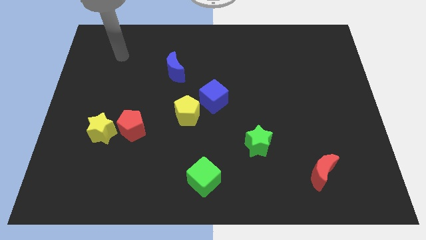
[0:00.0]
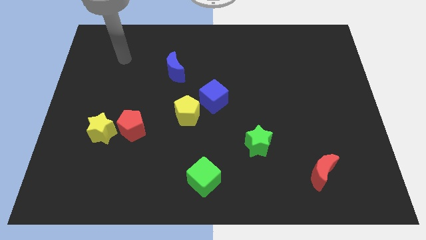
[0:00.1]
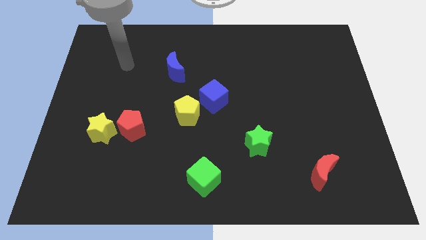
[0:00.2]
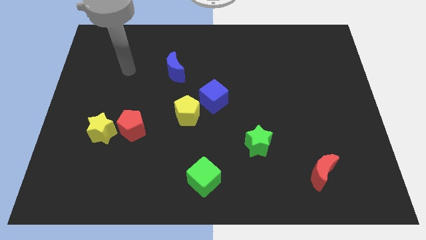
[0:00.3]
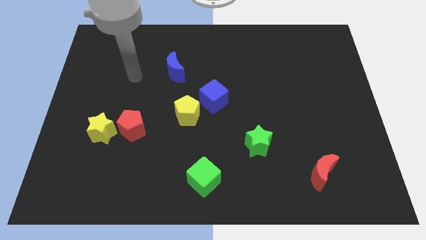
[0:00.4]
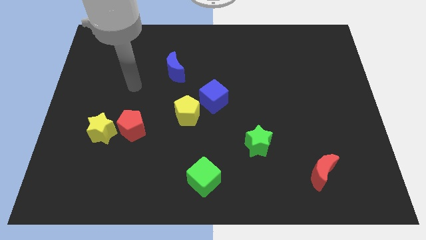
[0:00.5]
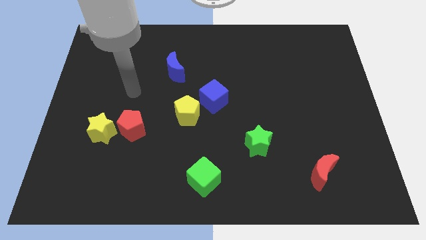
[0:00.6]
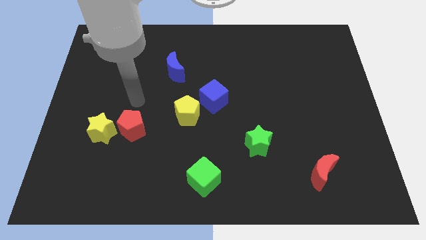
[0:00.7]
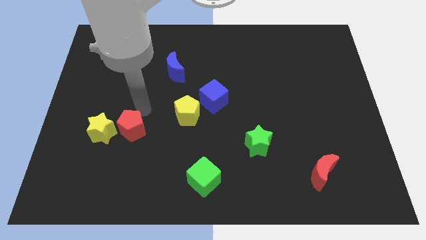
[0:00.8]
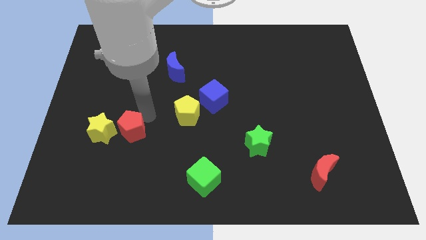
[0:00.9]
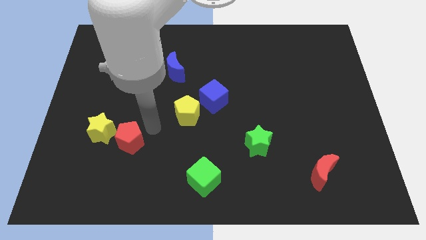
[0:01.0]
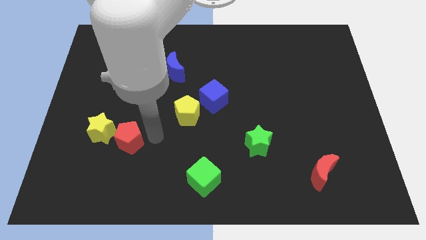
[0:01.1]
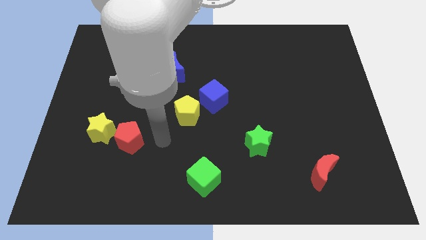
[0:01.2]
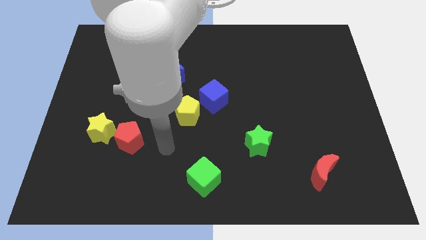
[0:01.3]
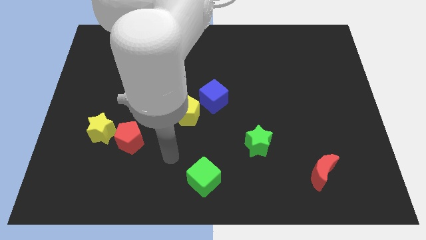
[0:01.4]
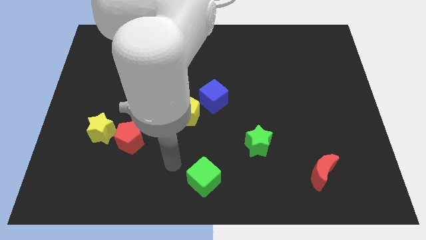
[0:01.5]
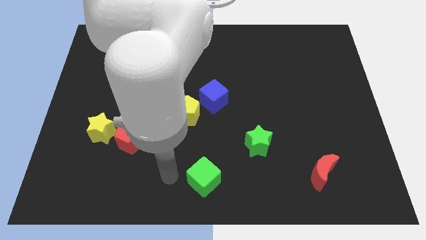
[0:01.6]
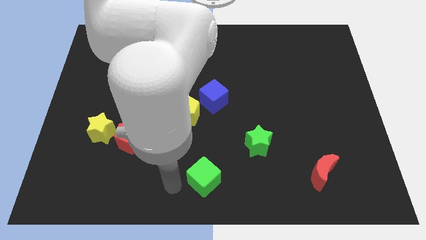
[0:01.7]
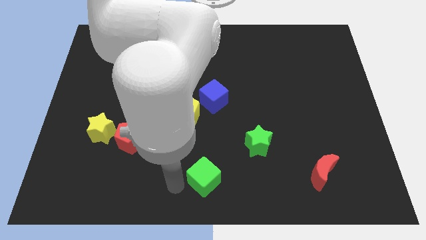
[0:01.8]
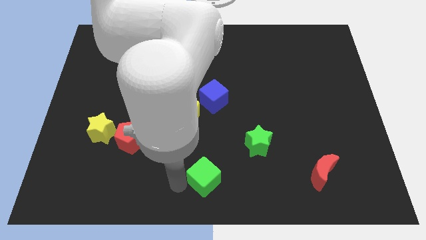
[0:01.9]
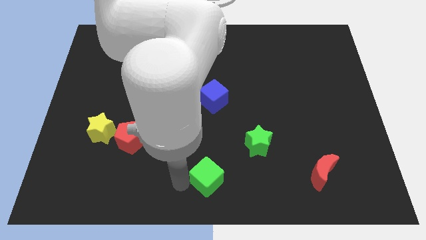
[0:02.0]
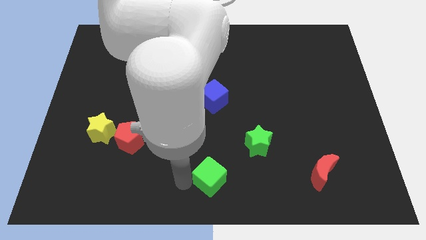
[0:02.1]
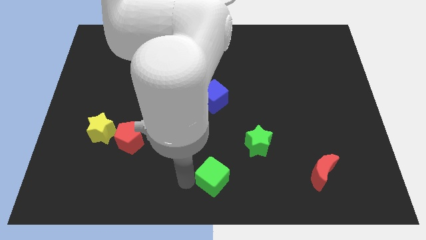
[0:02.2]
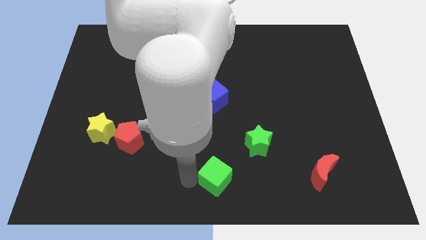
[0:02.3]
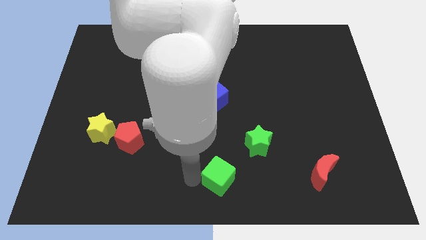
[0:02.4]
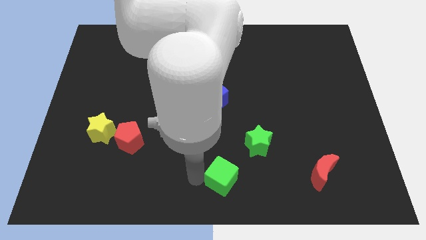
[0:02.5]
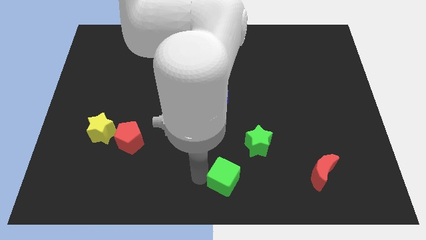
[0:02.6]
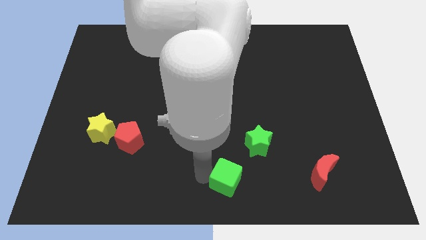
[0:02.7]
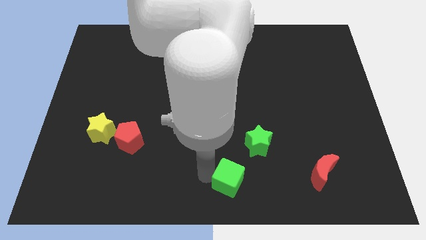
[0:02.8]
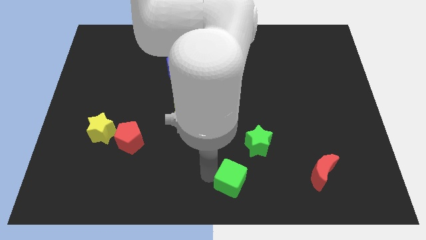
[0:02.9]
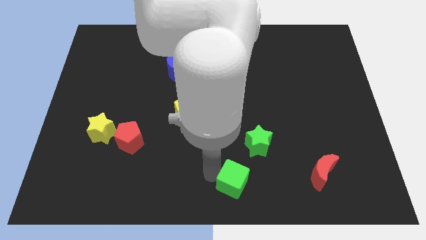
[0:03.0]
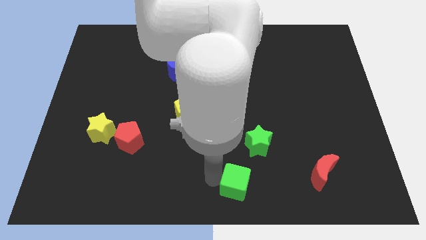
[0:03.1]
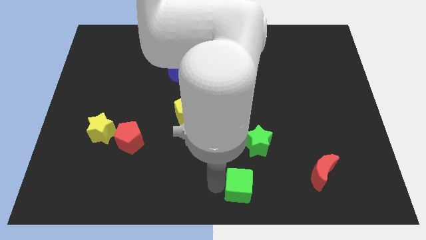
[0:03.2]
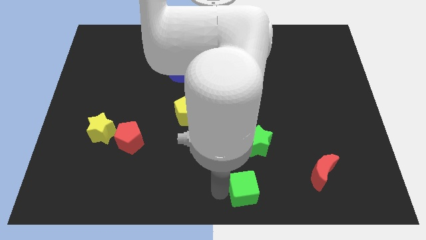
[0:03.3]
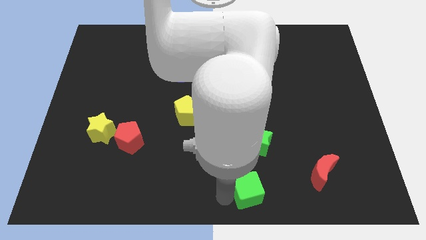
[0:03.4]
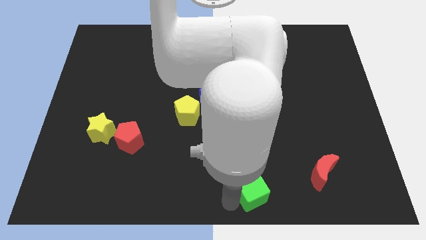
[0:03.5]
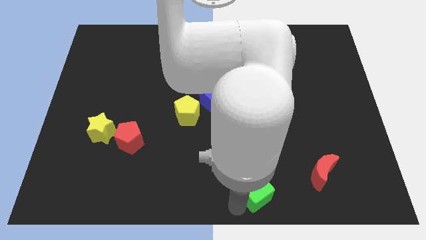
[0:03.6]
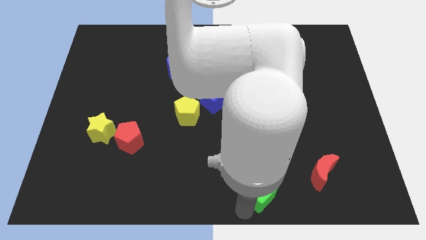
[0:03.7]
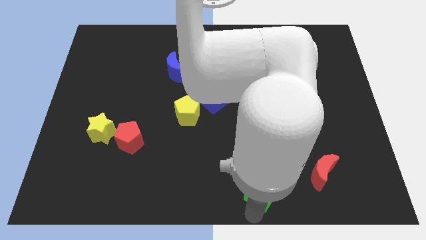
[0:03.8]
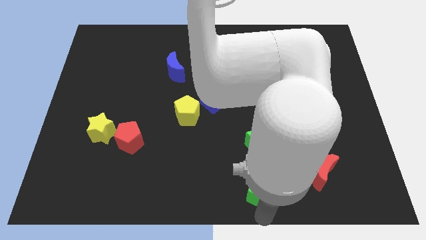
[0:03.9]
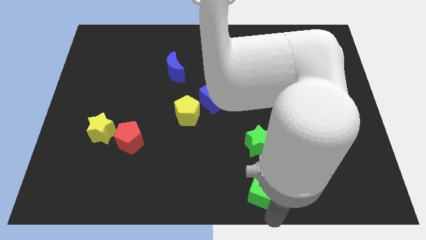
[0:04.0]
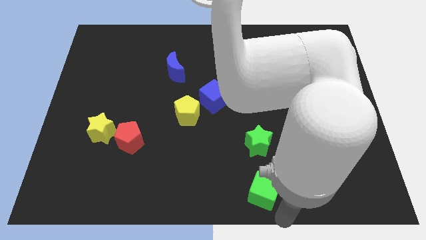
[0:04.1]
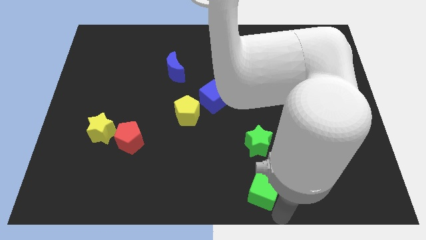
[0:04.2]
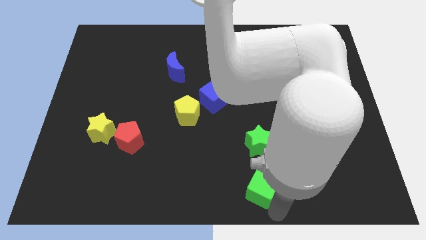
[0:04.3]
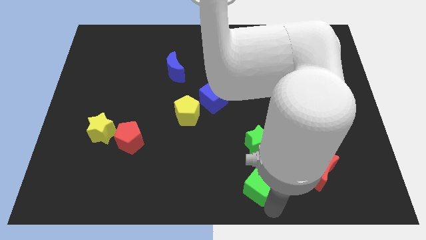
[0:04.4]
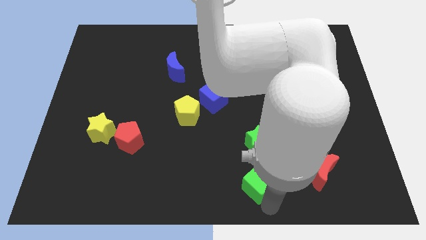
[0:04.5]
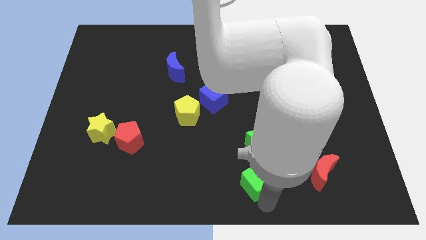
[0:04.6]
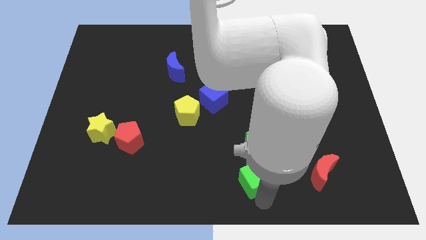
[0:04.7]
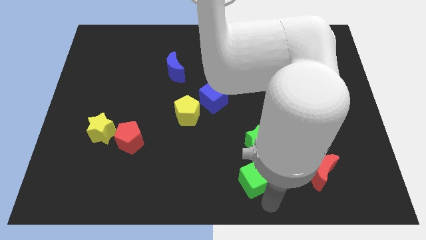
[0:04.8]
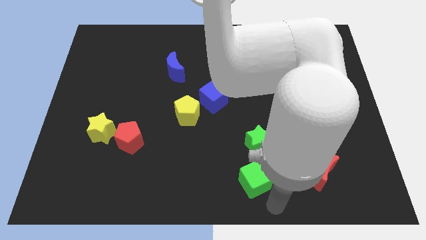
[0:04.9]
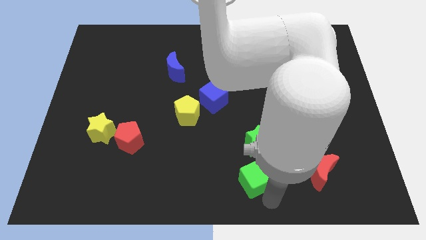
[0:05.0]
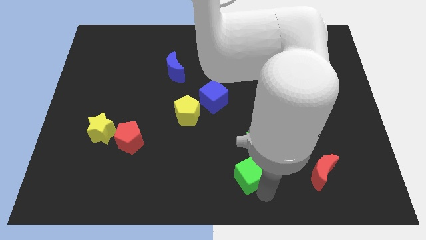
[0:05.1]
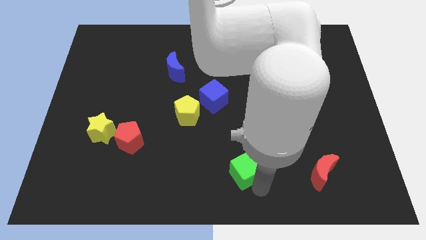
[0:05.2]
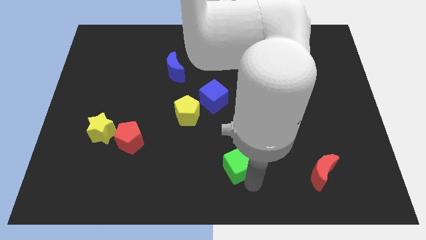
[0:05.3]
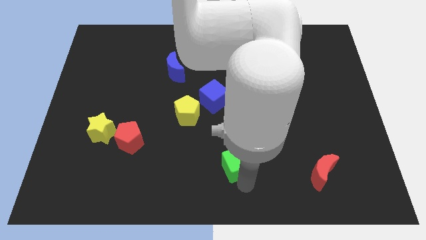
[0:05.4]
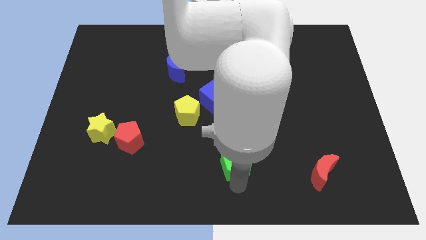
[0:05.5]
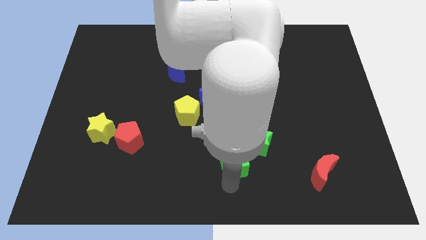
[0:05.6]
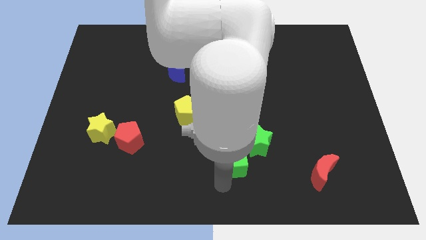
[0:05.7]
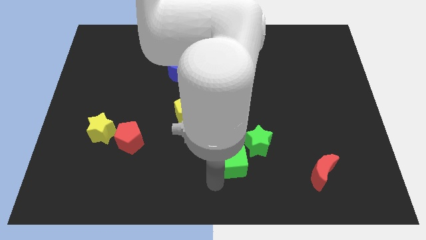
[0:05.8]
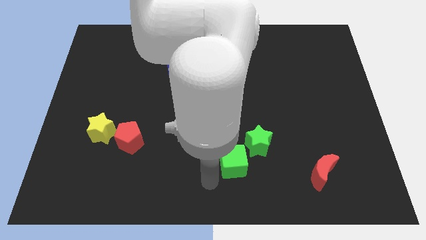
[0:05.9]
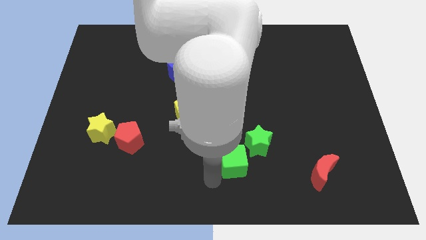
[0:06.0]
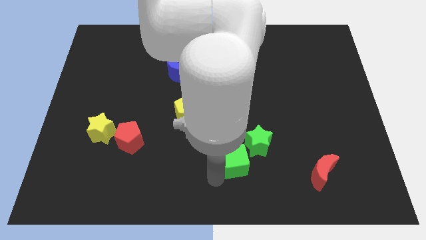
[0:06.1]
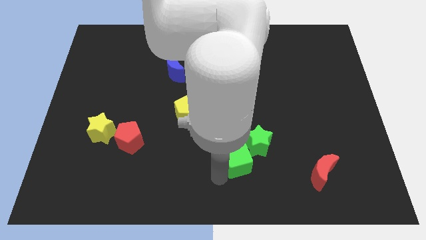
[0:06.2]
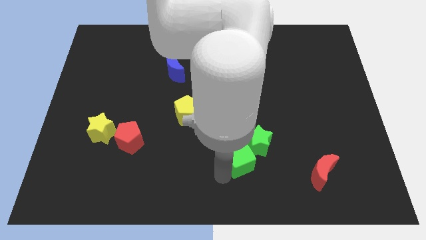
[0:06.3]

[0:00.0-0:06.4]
slide the green cube to the green star

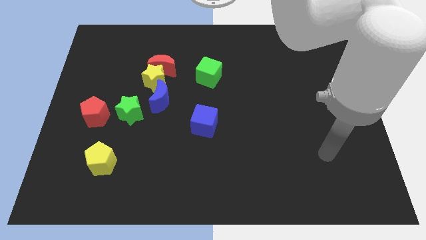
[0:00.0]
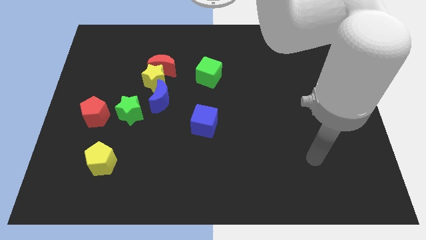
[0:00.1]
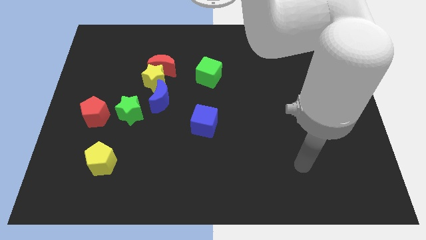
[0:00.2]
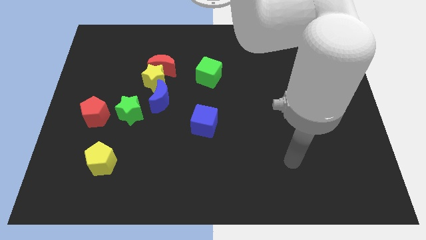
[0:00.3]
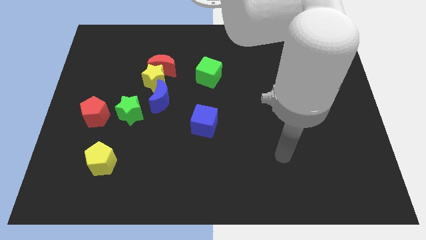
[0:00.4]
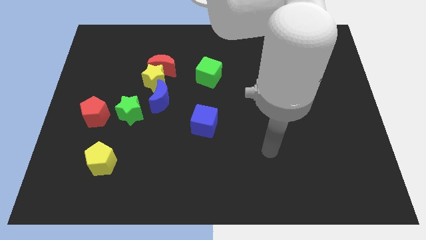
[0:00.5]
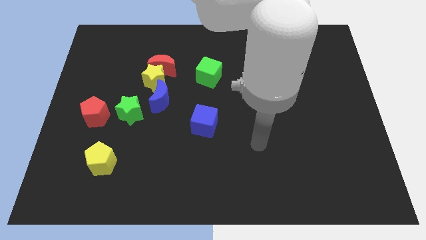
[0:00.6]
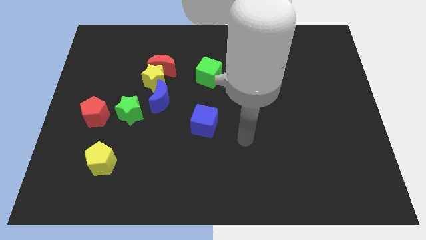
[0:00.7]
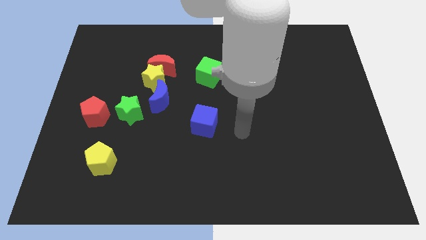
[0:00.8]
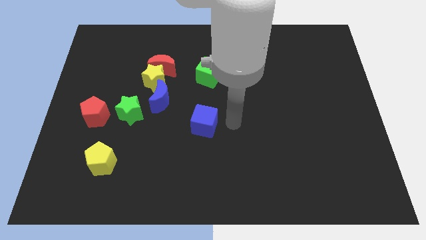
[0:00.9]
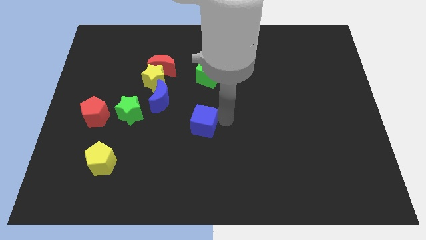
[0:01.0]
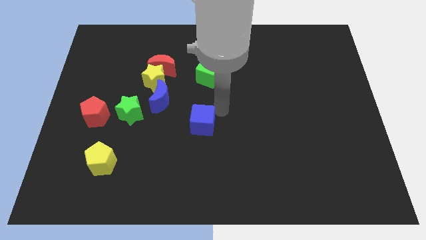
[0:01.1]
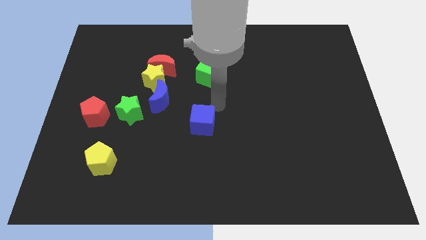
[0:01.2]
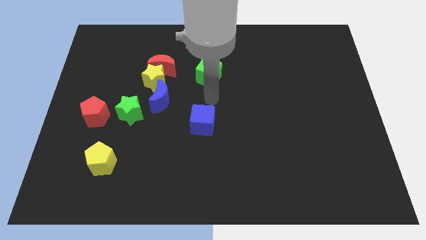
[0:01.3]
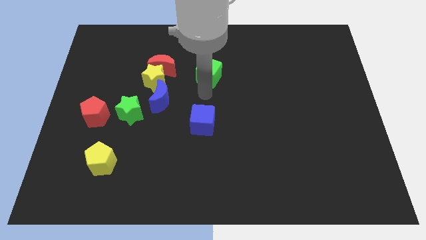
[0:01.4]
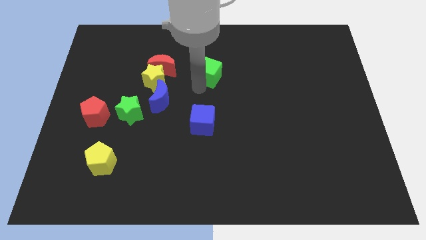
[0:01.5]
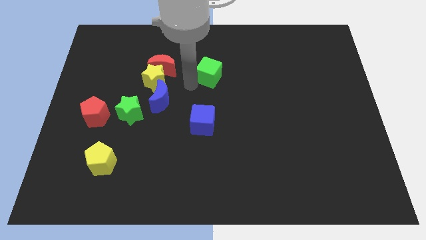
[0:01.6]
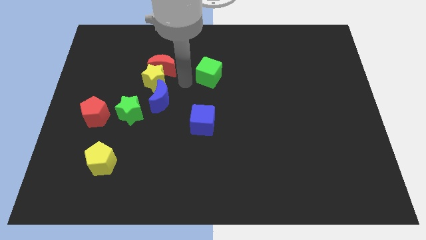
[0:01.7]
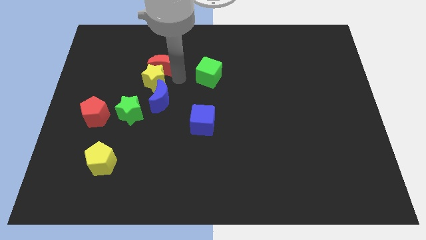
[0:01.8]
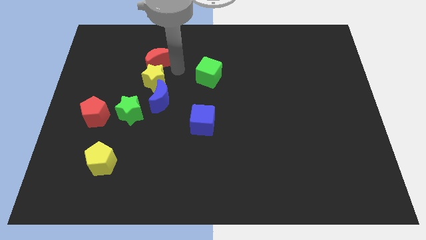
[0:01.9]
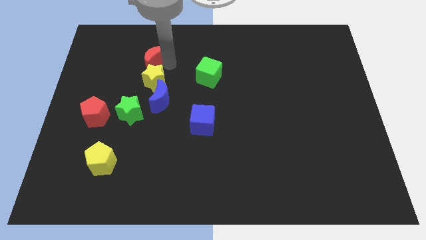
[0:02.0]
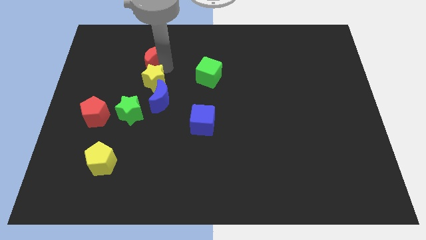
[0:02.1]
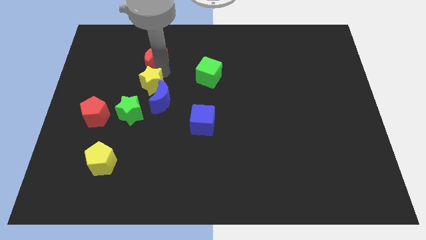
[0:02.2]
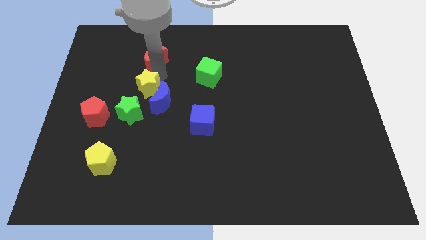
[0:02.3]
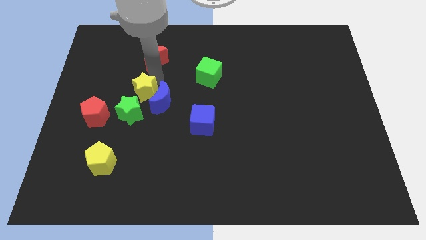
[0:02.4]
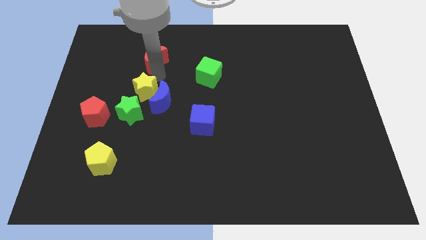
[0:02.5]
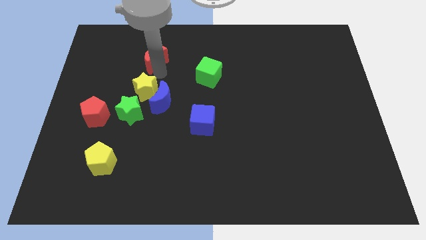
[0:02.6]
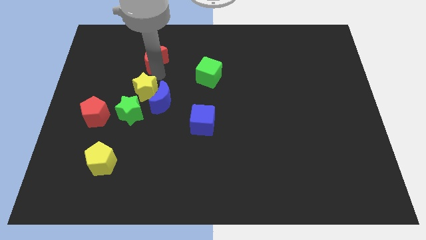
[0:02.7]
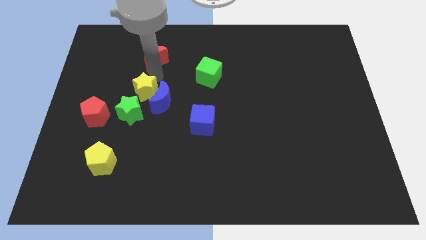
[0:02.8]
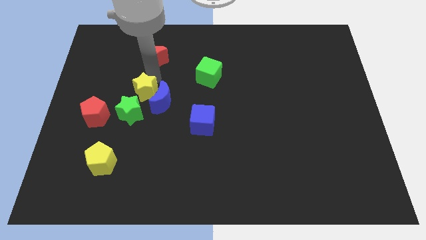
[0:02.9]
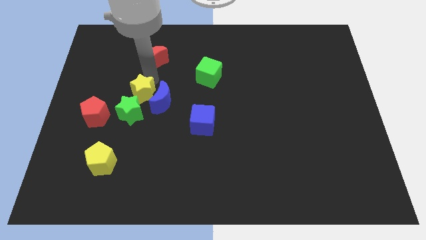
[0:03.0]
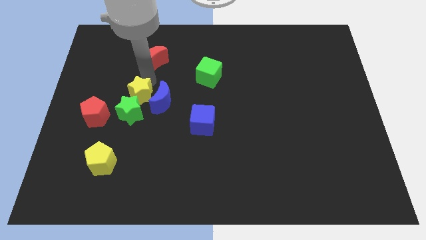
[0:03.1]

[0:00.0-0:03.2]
slide the yellow star next to the green star
